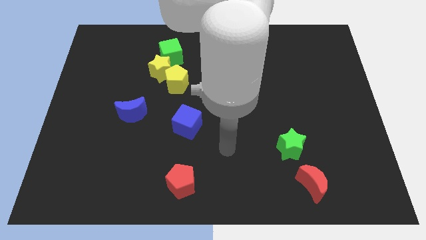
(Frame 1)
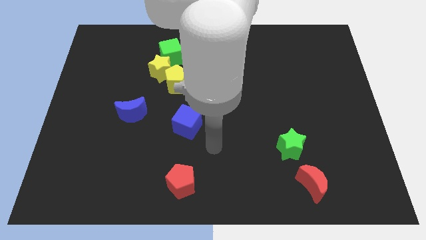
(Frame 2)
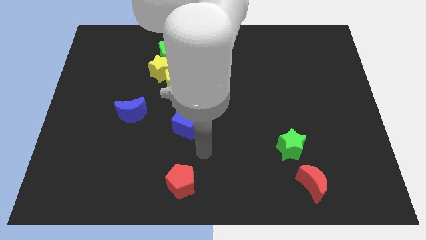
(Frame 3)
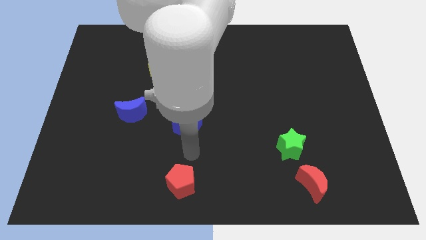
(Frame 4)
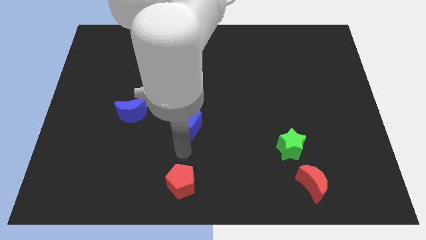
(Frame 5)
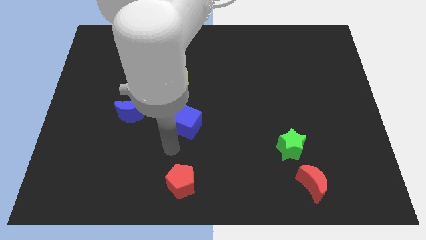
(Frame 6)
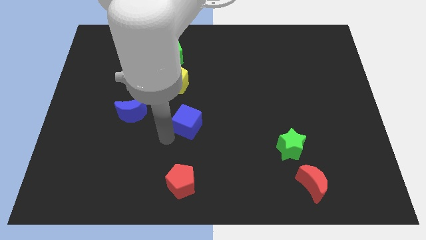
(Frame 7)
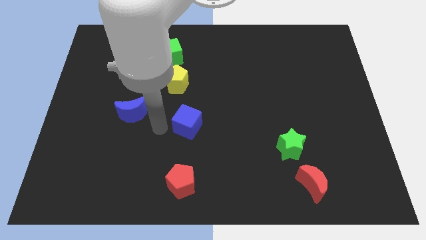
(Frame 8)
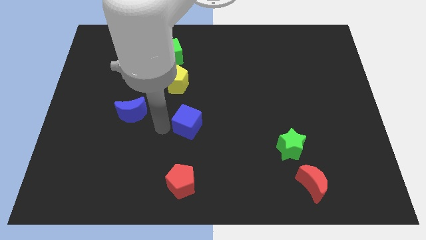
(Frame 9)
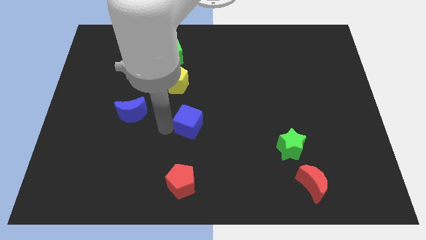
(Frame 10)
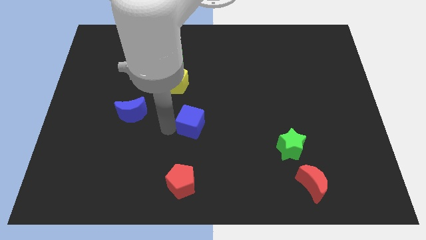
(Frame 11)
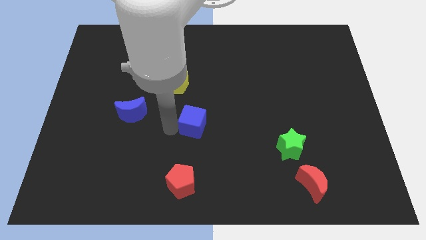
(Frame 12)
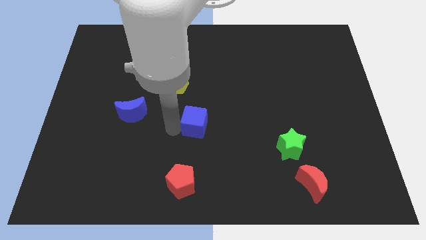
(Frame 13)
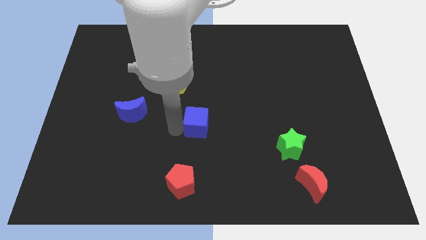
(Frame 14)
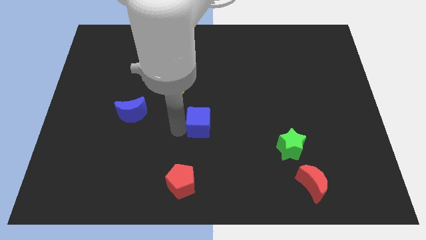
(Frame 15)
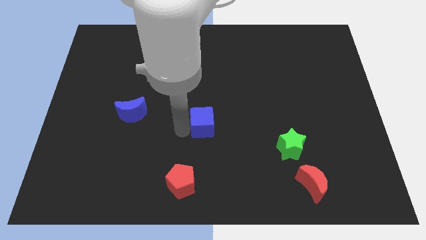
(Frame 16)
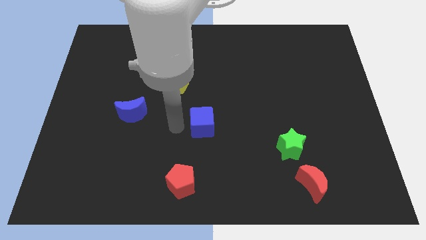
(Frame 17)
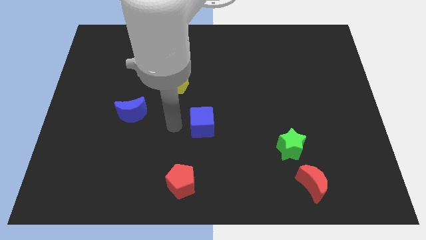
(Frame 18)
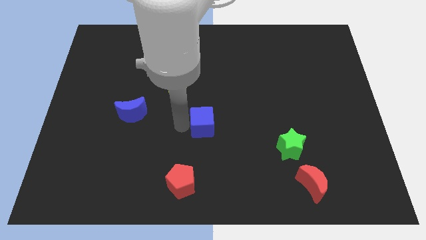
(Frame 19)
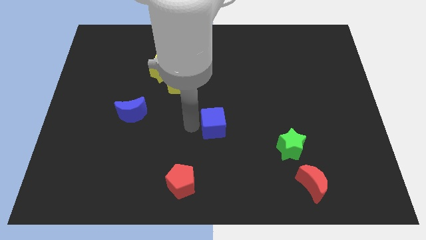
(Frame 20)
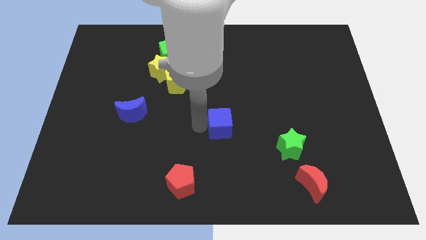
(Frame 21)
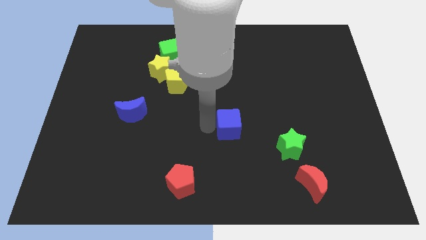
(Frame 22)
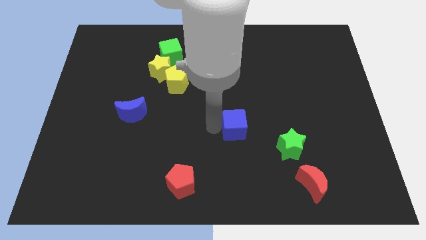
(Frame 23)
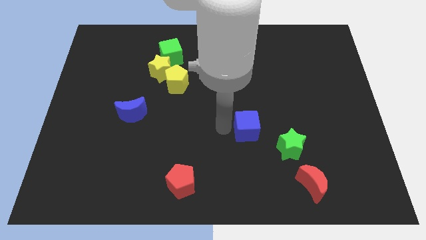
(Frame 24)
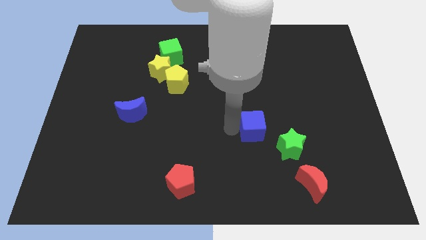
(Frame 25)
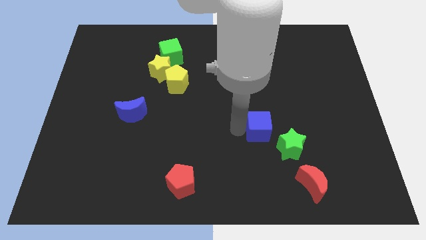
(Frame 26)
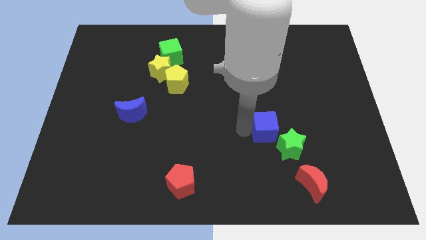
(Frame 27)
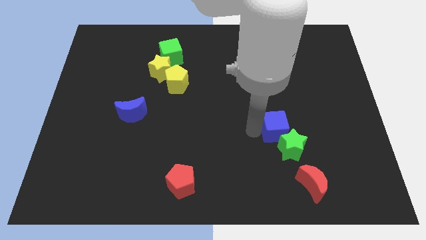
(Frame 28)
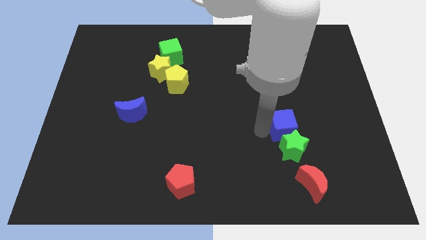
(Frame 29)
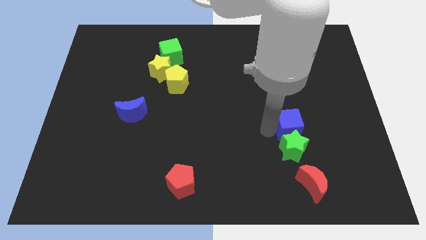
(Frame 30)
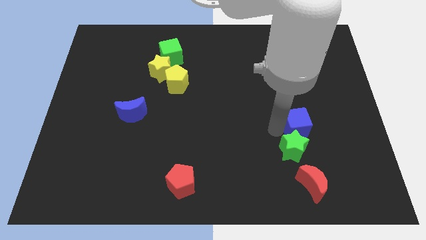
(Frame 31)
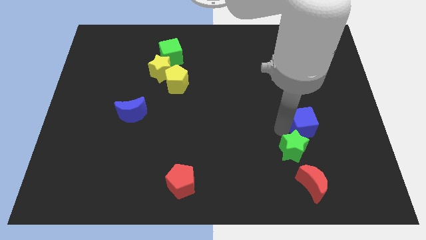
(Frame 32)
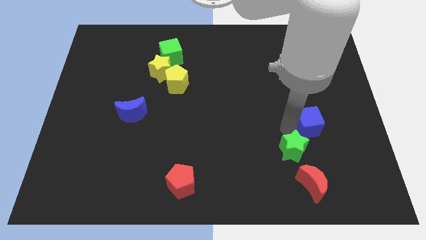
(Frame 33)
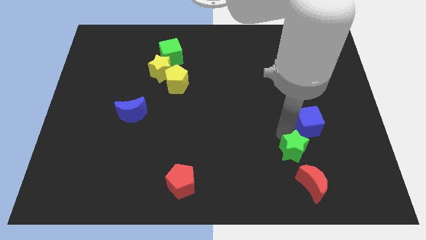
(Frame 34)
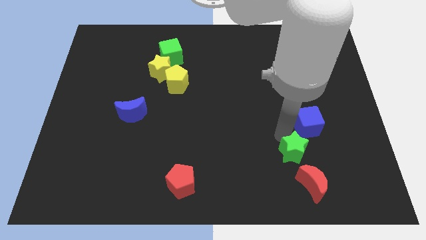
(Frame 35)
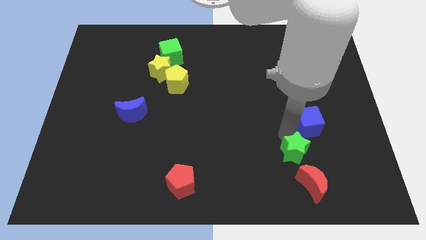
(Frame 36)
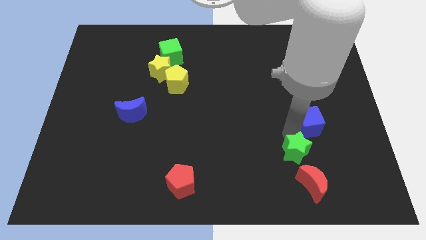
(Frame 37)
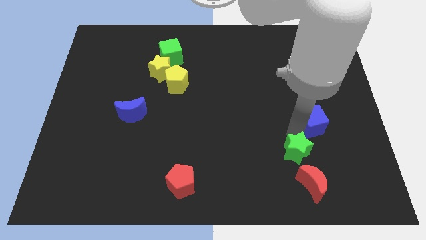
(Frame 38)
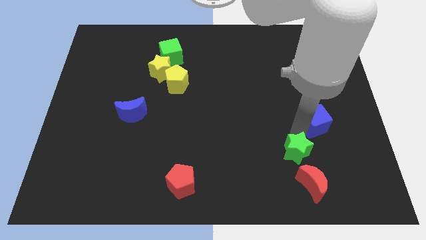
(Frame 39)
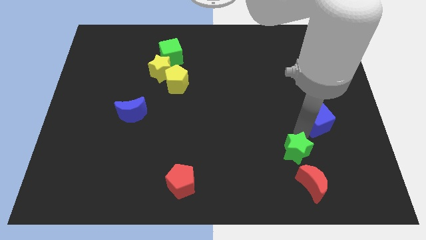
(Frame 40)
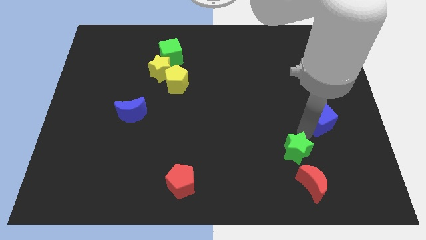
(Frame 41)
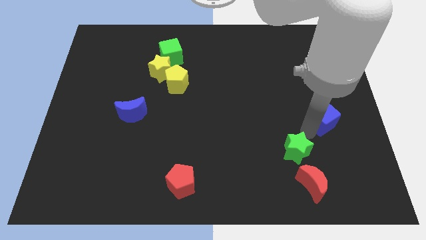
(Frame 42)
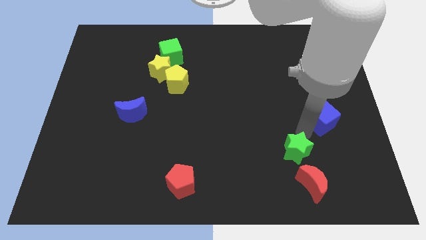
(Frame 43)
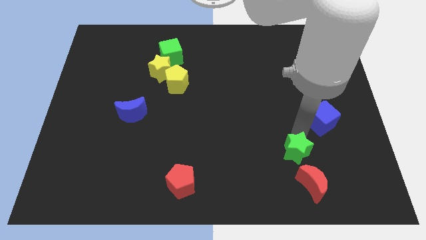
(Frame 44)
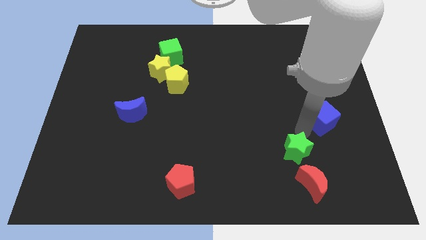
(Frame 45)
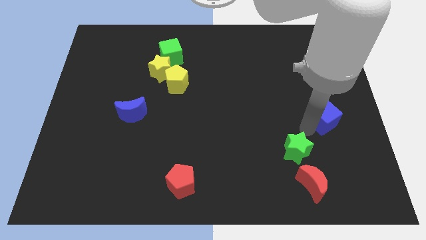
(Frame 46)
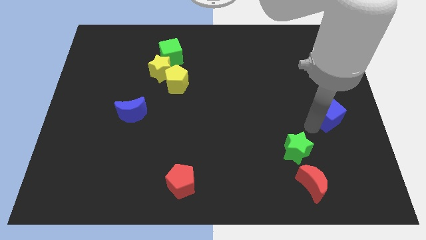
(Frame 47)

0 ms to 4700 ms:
slide the blue cube to the right side of the board

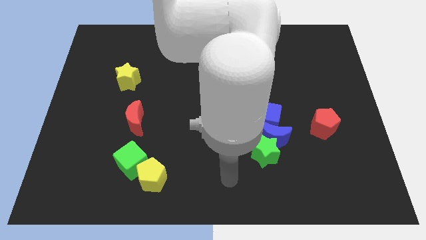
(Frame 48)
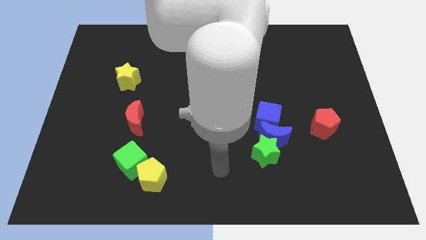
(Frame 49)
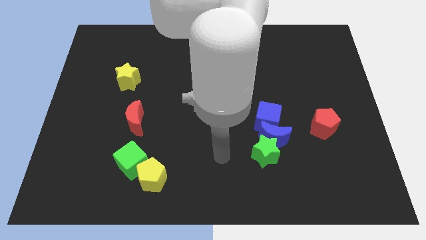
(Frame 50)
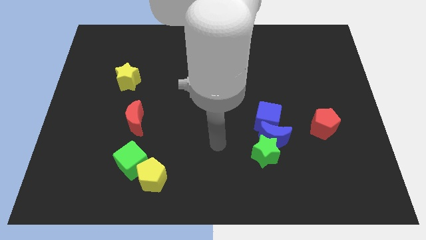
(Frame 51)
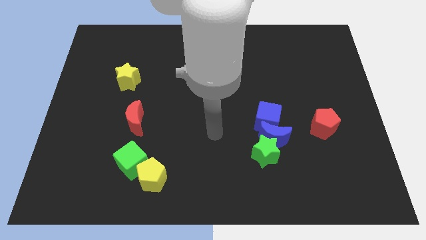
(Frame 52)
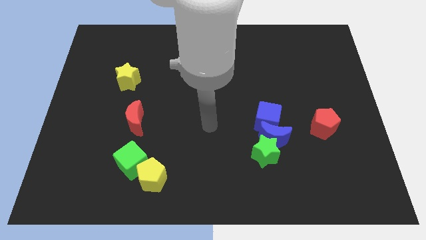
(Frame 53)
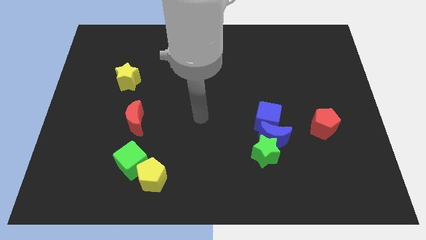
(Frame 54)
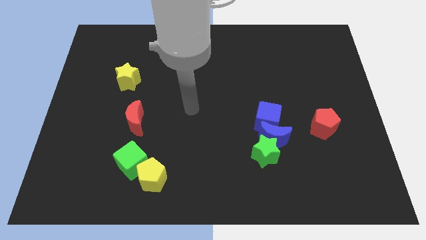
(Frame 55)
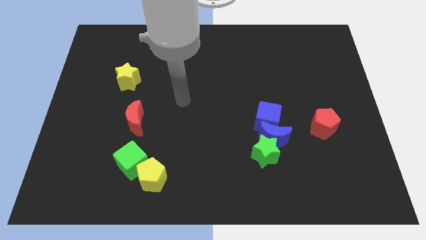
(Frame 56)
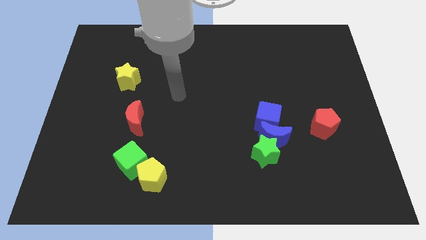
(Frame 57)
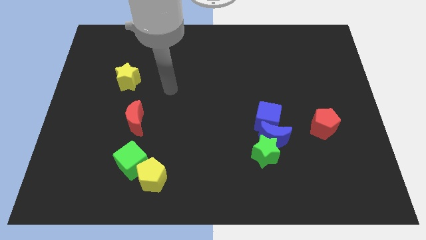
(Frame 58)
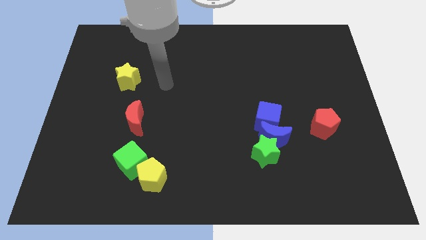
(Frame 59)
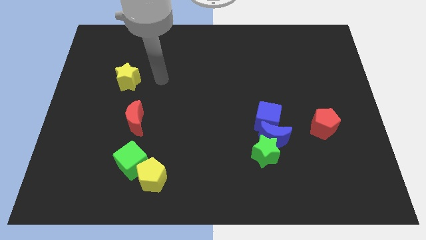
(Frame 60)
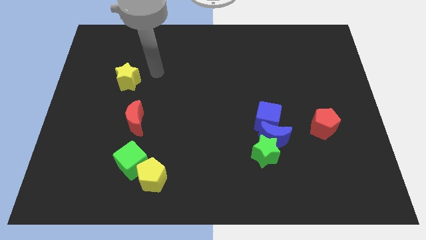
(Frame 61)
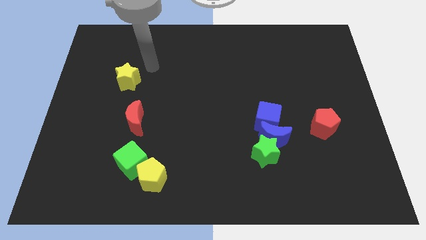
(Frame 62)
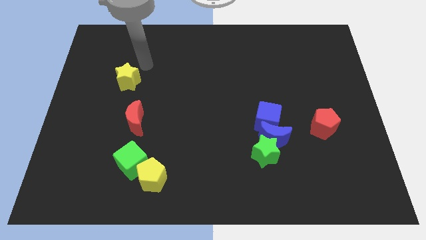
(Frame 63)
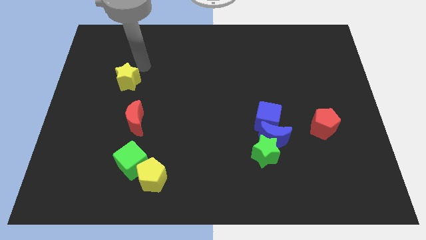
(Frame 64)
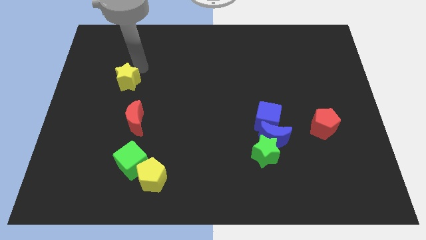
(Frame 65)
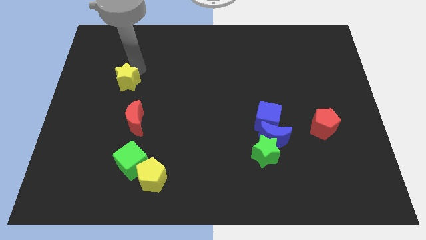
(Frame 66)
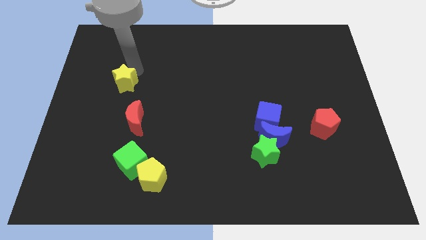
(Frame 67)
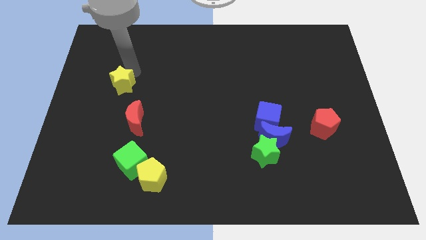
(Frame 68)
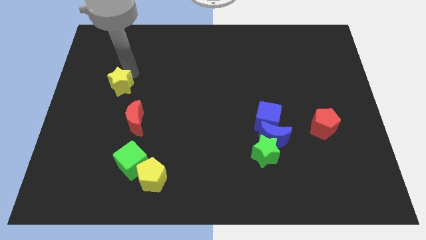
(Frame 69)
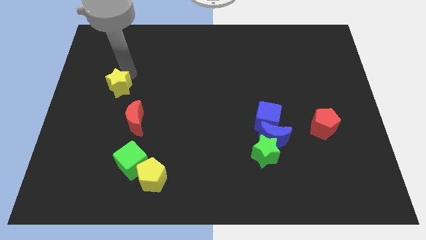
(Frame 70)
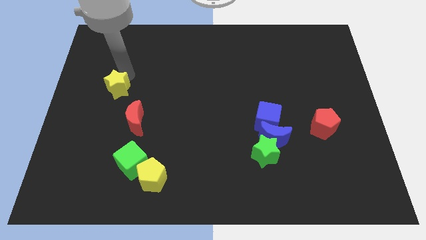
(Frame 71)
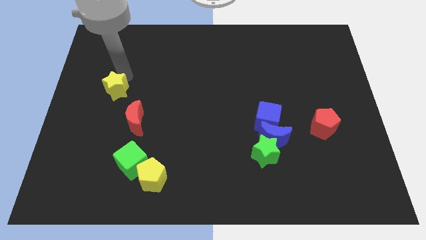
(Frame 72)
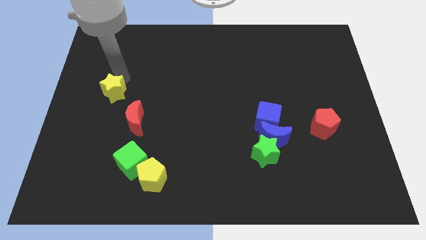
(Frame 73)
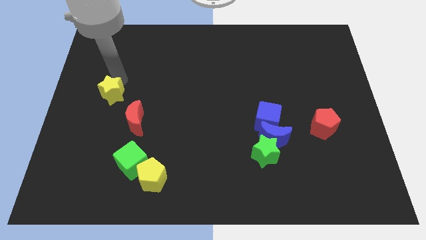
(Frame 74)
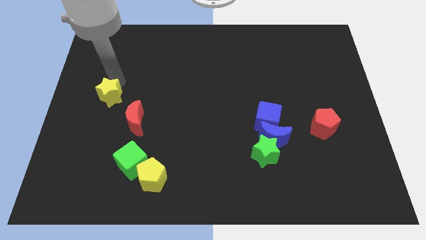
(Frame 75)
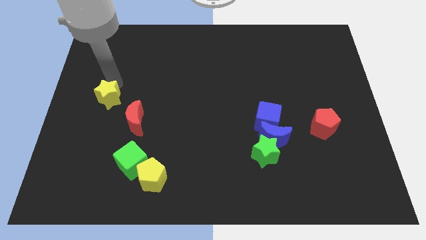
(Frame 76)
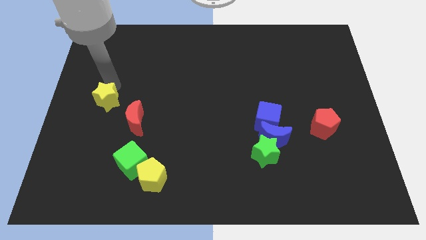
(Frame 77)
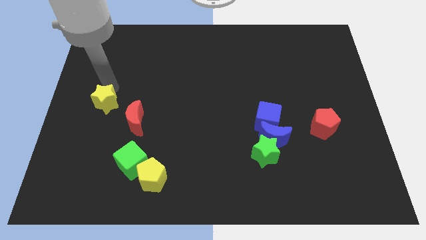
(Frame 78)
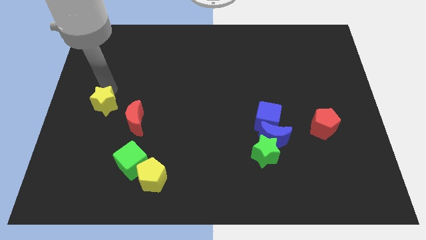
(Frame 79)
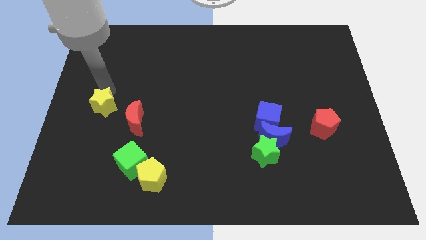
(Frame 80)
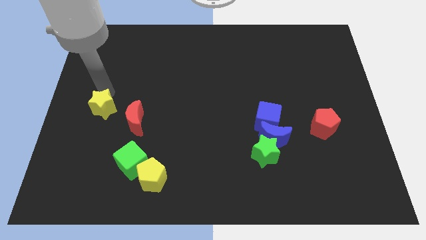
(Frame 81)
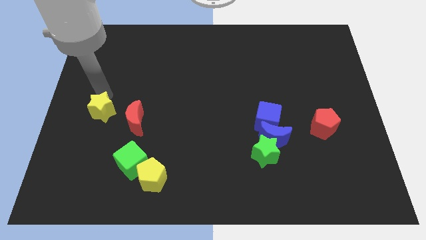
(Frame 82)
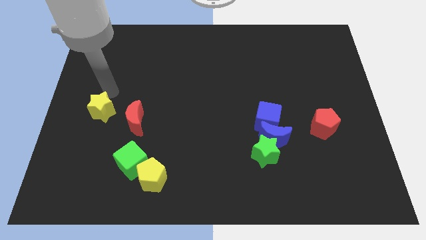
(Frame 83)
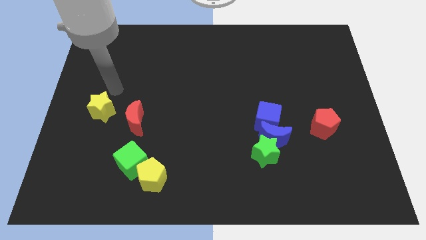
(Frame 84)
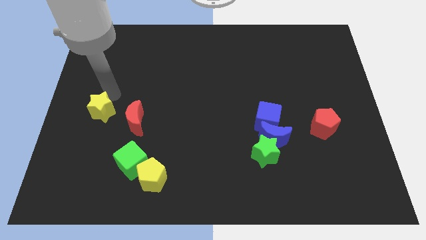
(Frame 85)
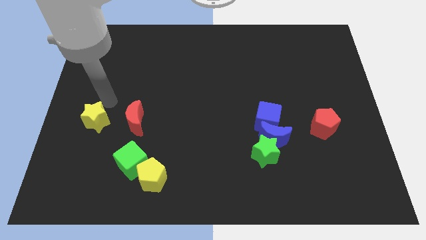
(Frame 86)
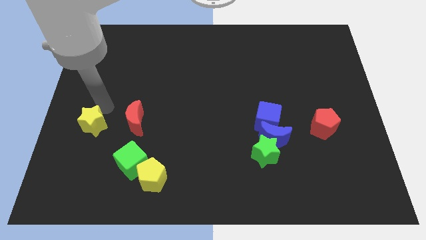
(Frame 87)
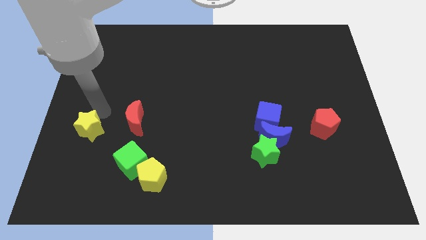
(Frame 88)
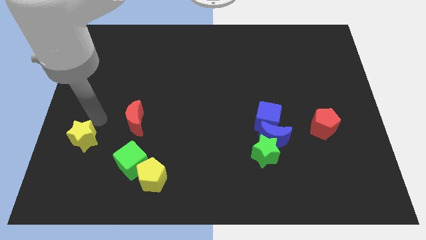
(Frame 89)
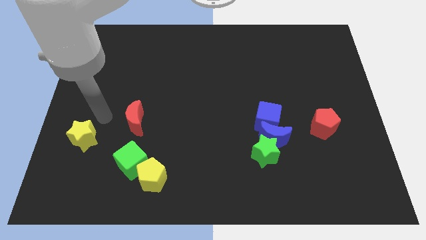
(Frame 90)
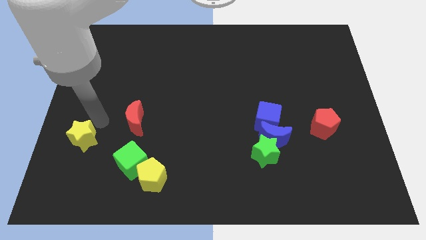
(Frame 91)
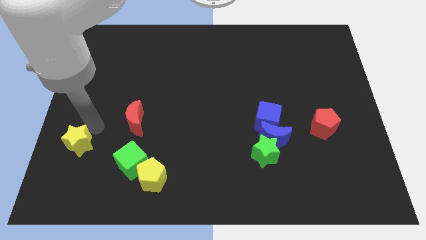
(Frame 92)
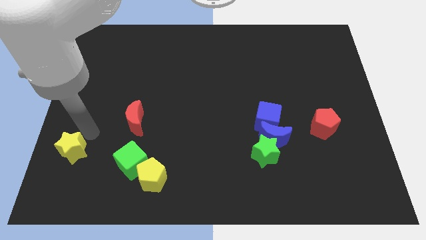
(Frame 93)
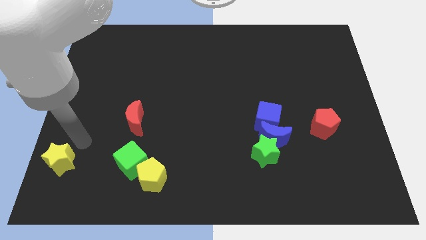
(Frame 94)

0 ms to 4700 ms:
slide the yellow star to the bottom left corner
